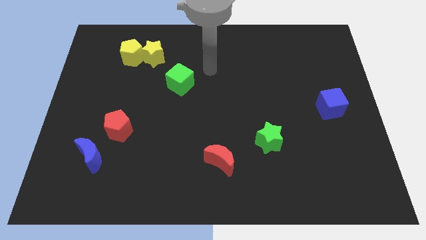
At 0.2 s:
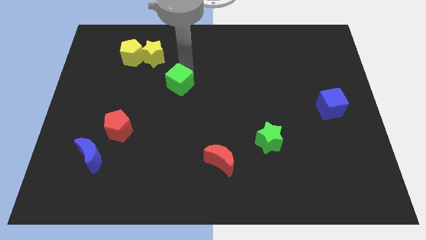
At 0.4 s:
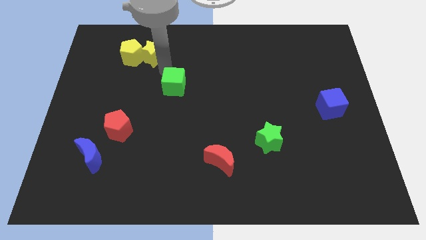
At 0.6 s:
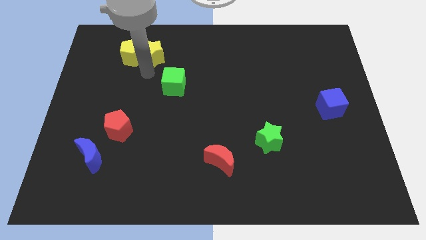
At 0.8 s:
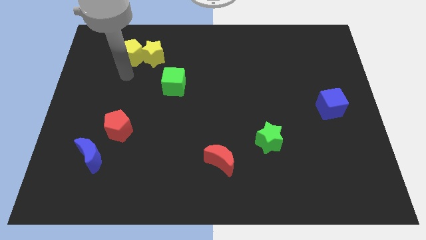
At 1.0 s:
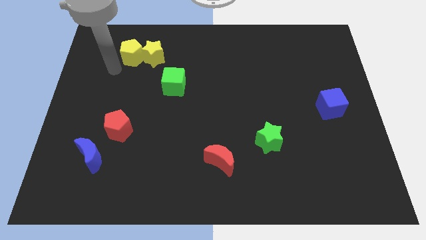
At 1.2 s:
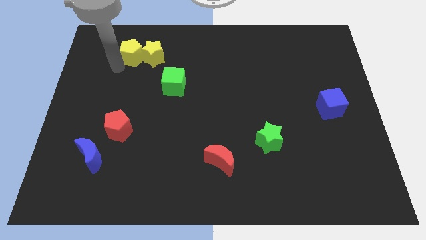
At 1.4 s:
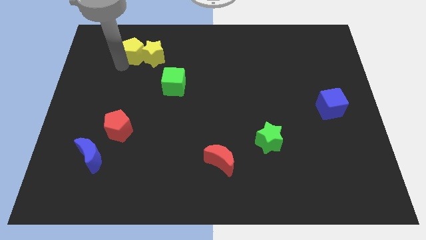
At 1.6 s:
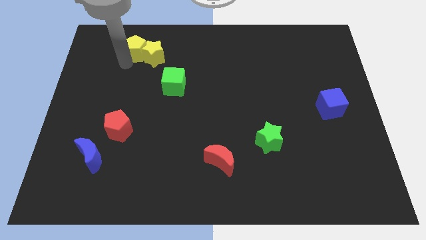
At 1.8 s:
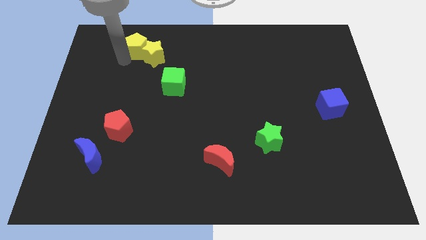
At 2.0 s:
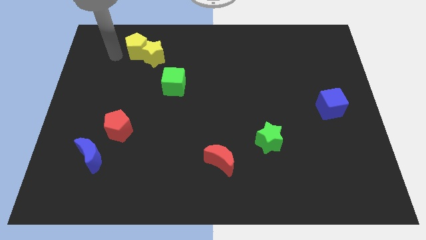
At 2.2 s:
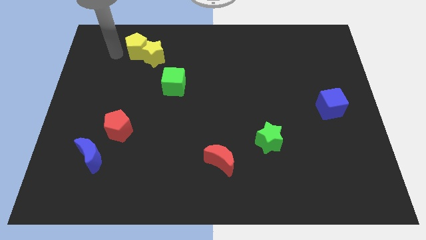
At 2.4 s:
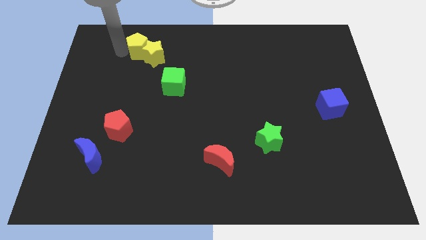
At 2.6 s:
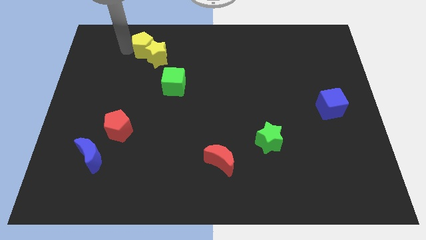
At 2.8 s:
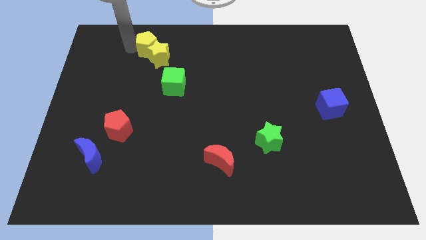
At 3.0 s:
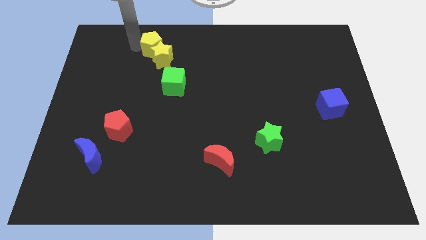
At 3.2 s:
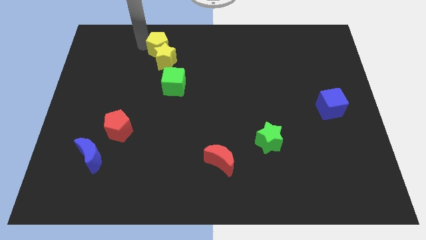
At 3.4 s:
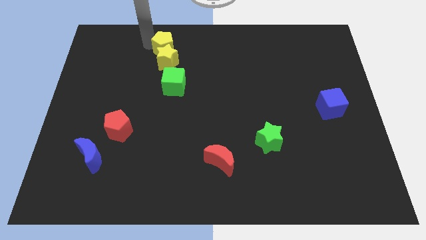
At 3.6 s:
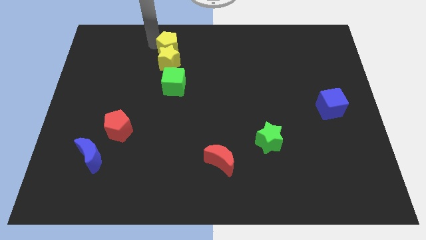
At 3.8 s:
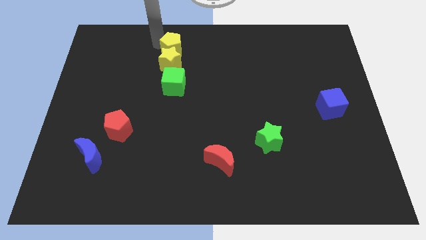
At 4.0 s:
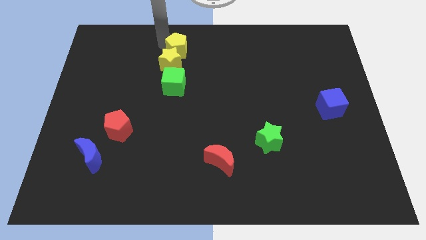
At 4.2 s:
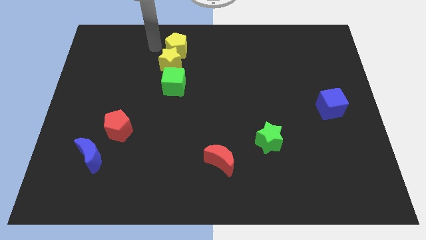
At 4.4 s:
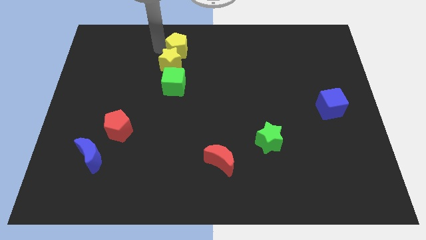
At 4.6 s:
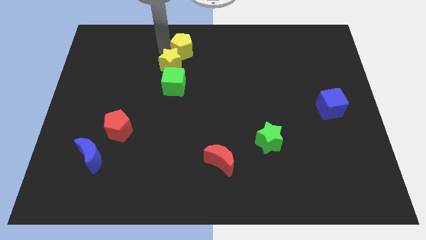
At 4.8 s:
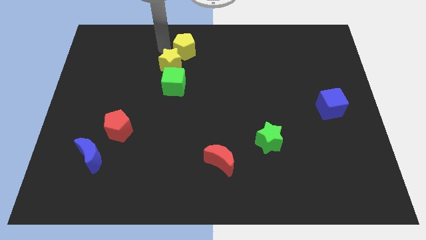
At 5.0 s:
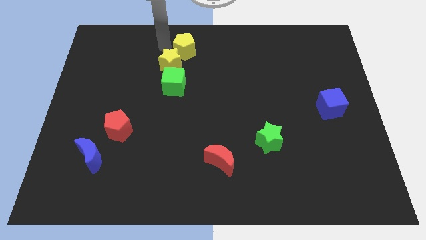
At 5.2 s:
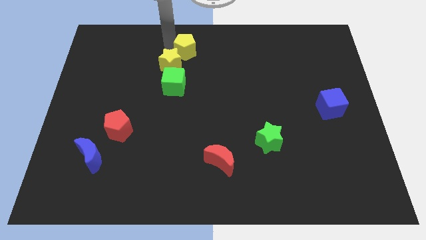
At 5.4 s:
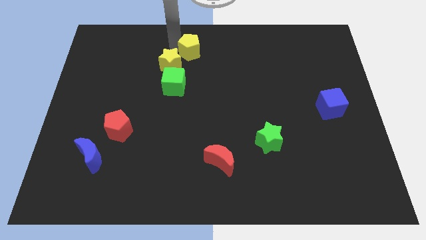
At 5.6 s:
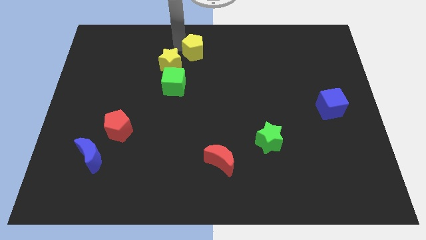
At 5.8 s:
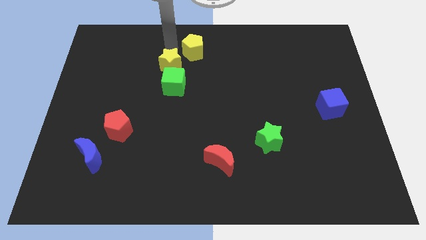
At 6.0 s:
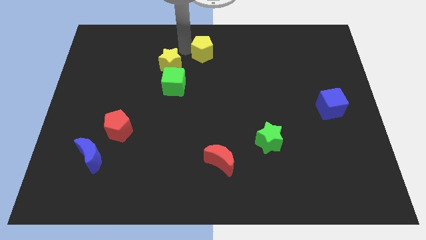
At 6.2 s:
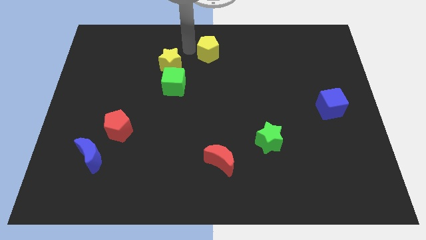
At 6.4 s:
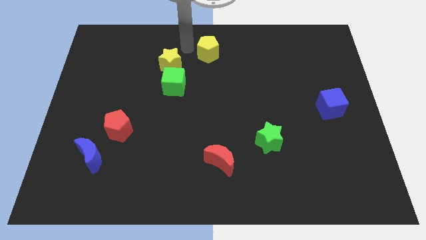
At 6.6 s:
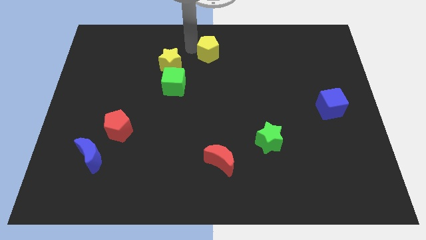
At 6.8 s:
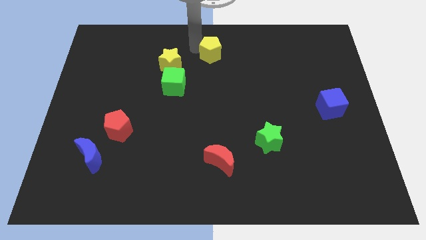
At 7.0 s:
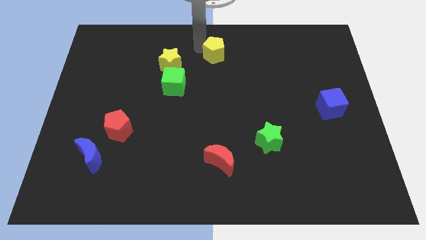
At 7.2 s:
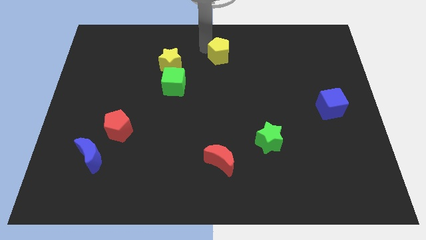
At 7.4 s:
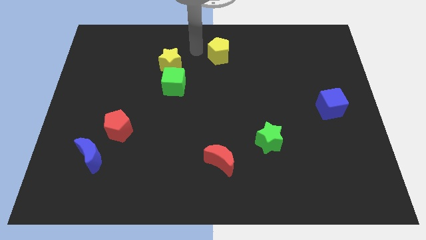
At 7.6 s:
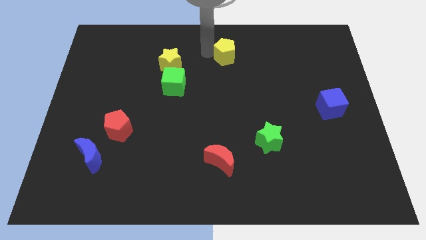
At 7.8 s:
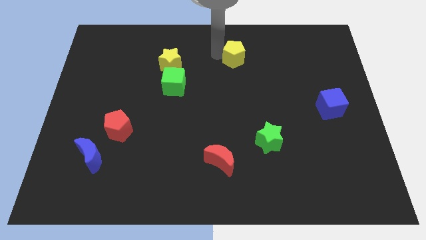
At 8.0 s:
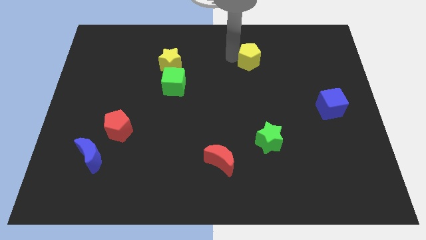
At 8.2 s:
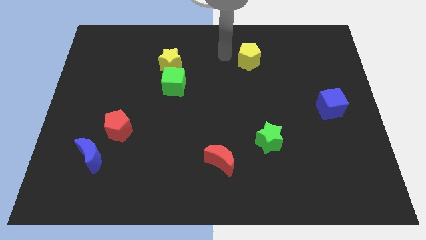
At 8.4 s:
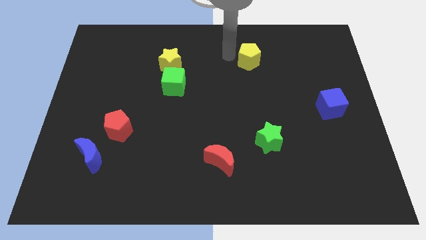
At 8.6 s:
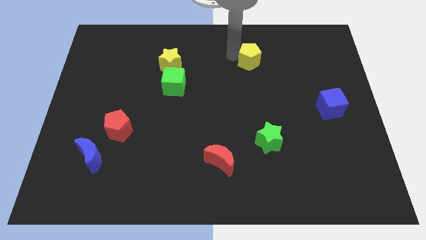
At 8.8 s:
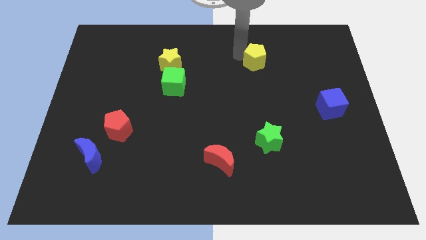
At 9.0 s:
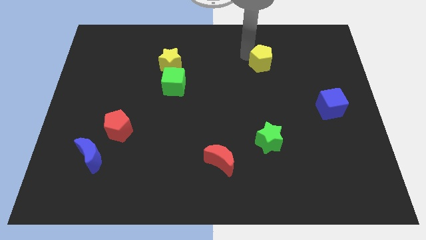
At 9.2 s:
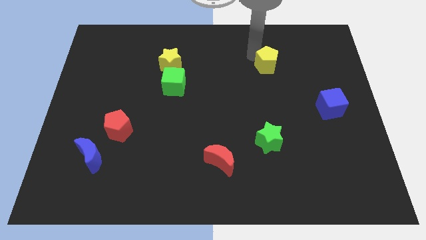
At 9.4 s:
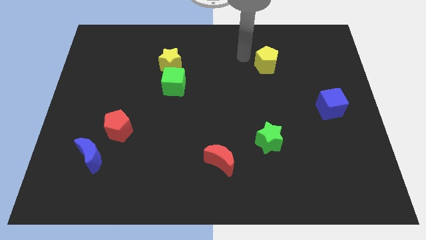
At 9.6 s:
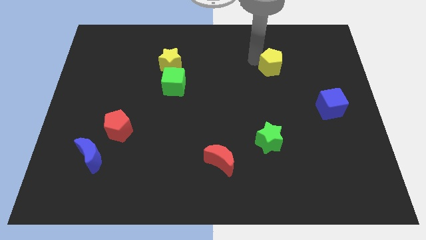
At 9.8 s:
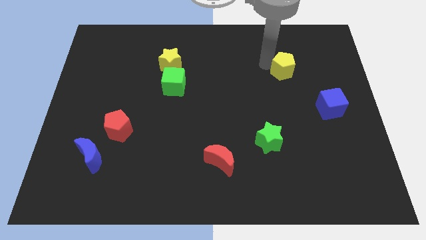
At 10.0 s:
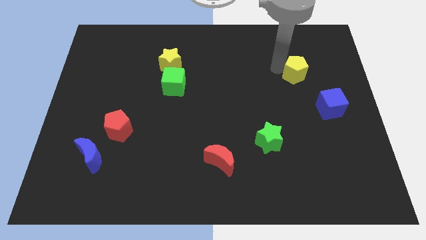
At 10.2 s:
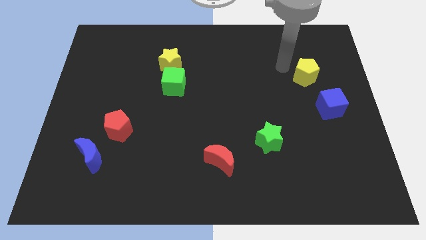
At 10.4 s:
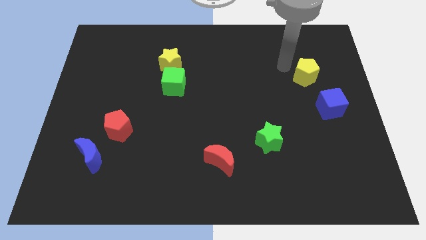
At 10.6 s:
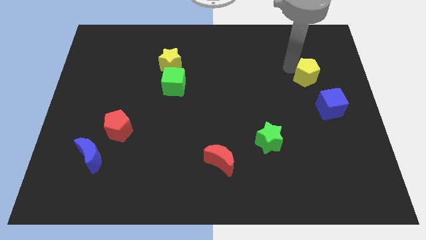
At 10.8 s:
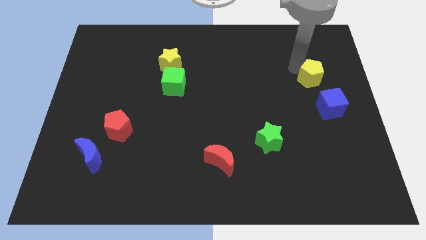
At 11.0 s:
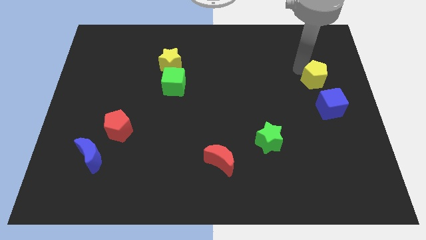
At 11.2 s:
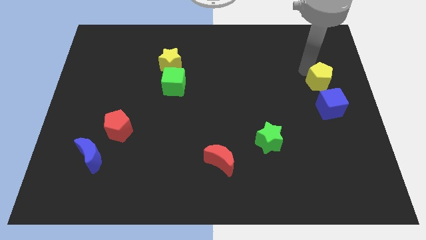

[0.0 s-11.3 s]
put the yellow pentagon to the center right

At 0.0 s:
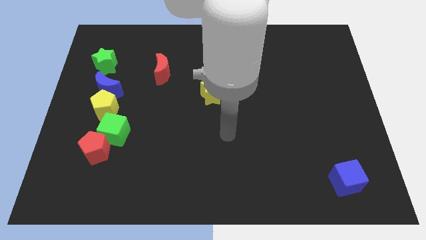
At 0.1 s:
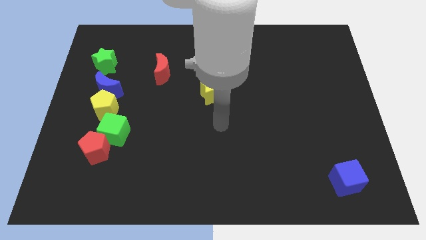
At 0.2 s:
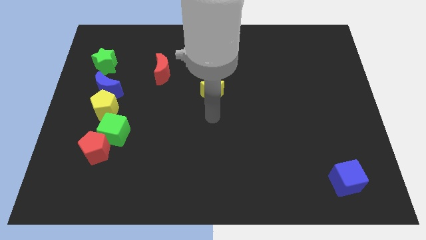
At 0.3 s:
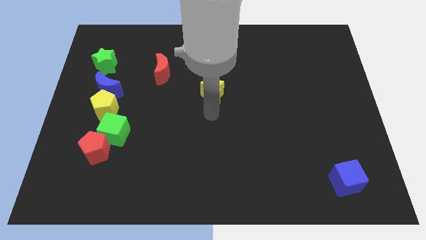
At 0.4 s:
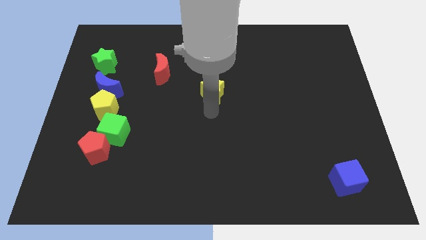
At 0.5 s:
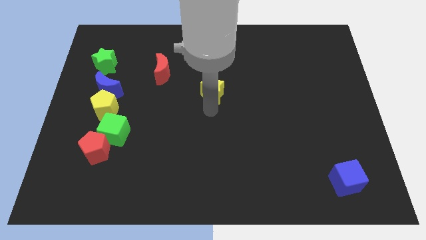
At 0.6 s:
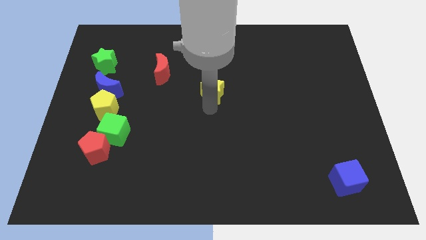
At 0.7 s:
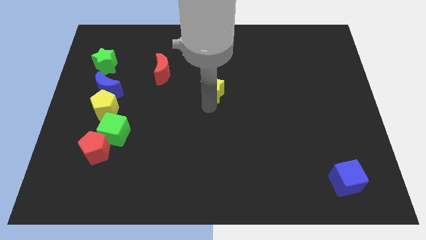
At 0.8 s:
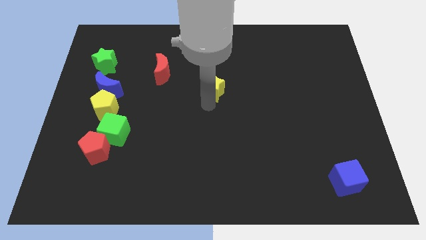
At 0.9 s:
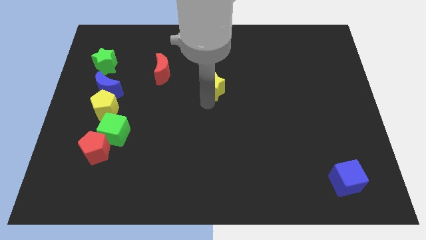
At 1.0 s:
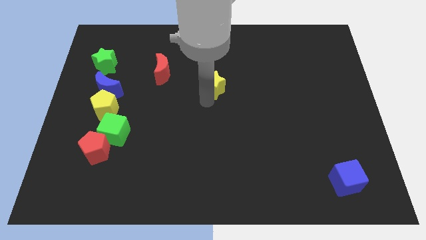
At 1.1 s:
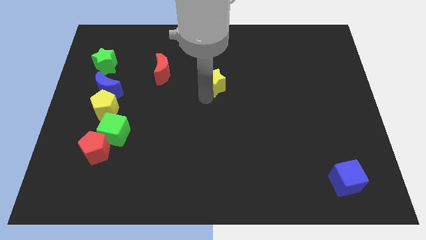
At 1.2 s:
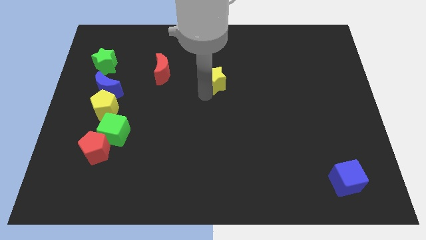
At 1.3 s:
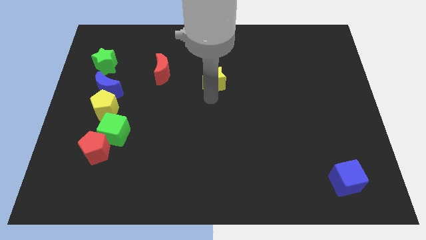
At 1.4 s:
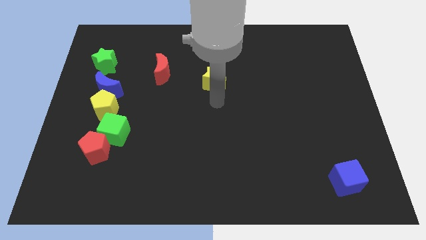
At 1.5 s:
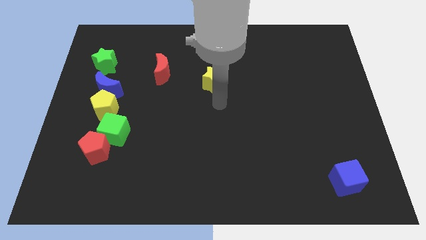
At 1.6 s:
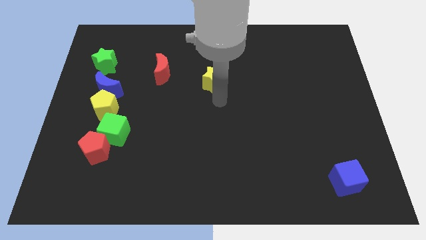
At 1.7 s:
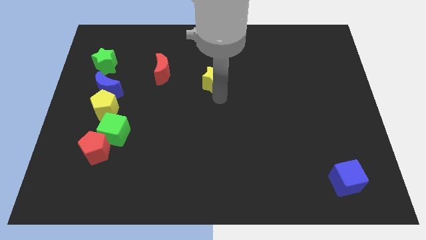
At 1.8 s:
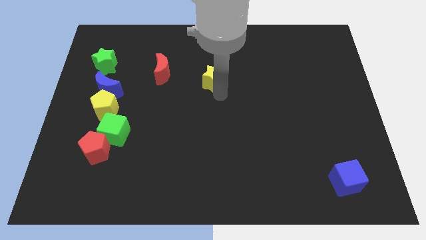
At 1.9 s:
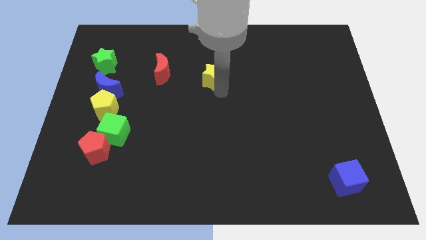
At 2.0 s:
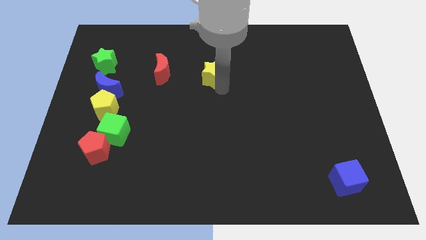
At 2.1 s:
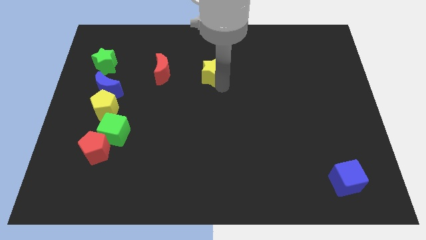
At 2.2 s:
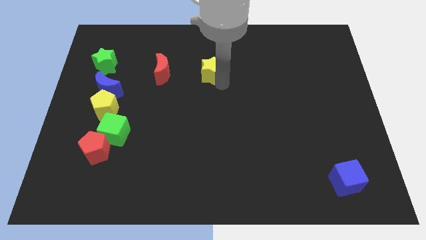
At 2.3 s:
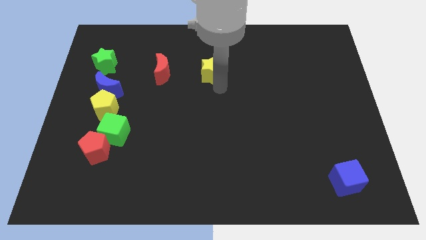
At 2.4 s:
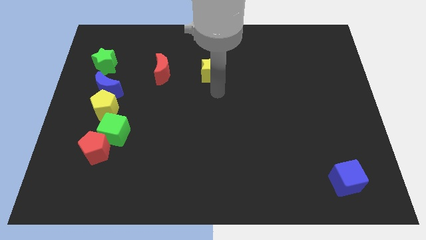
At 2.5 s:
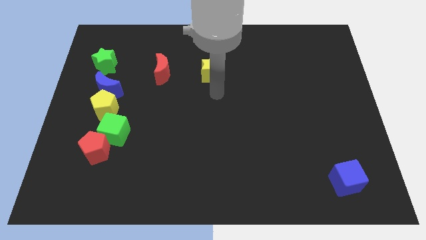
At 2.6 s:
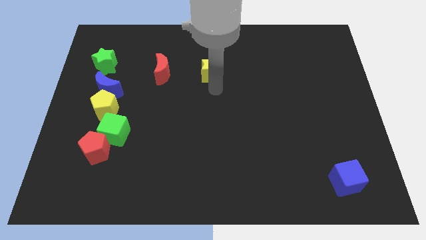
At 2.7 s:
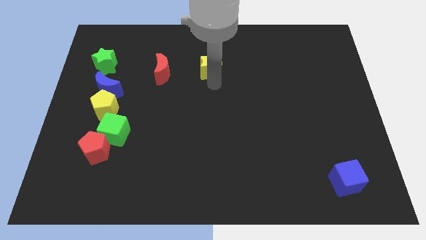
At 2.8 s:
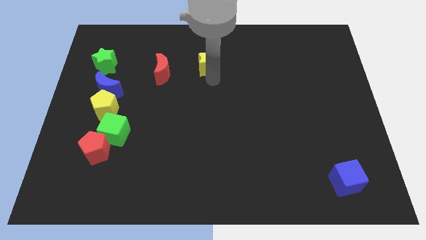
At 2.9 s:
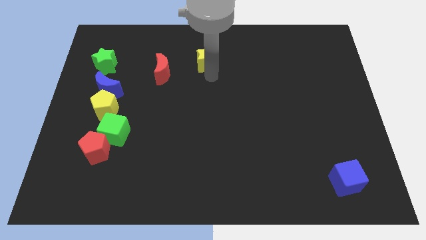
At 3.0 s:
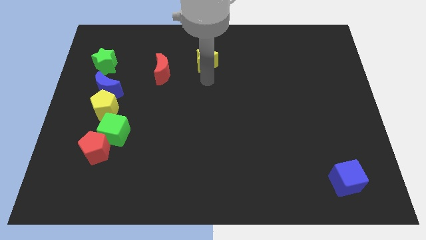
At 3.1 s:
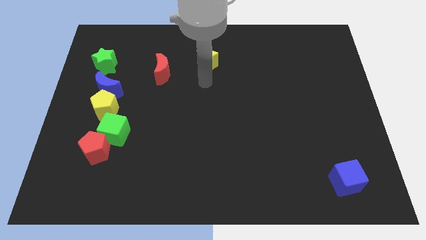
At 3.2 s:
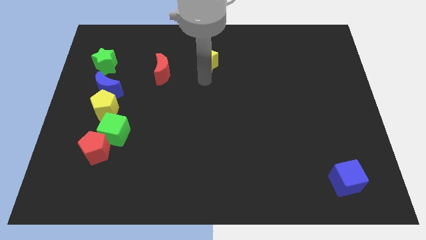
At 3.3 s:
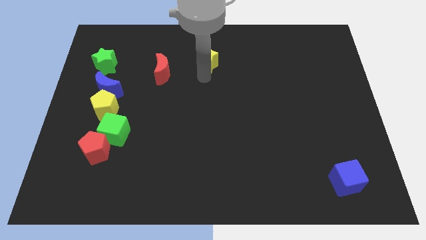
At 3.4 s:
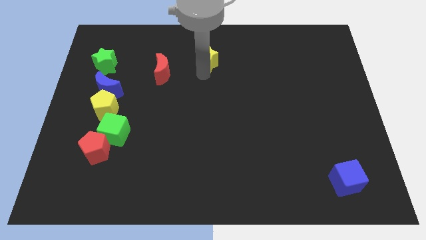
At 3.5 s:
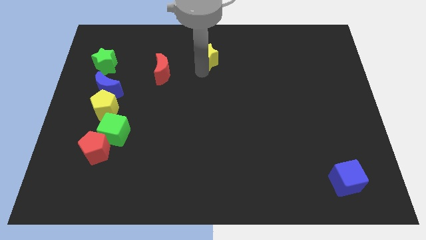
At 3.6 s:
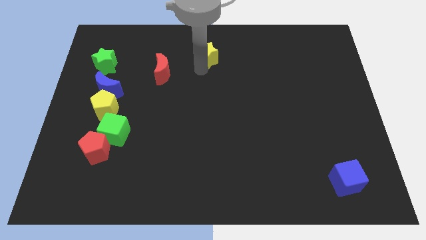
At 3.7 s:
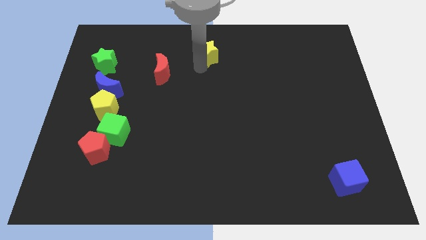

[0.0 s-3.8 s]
move the yellow star to the top side
